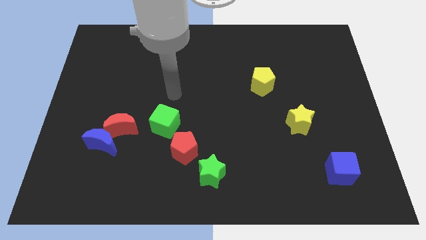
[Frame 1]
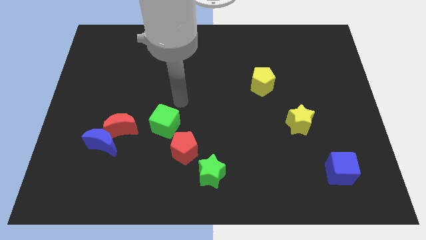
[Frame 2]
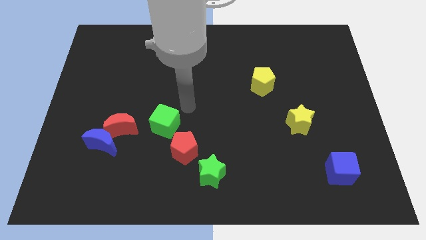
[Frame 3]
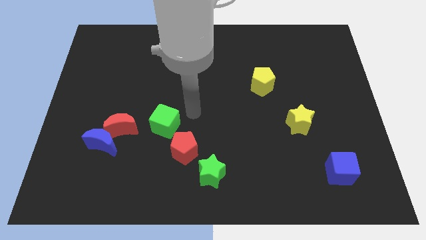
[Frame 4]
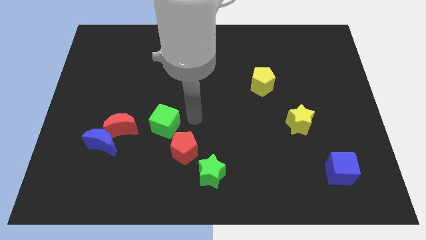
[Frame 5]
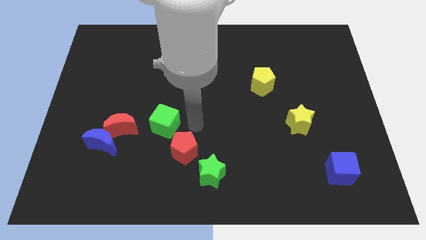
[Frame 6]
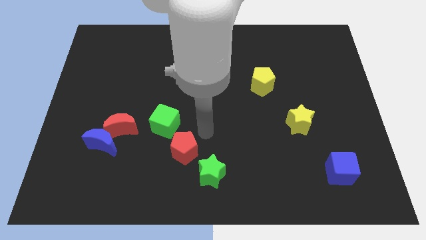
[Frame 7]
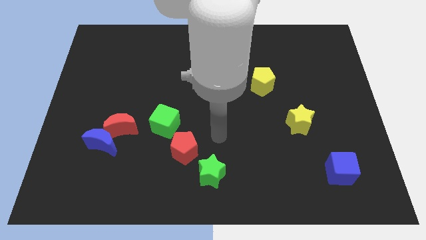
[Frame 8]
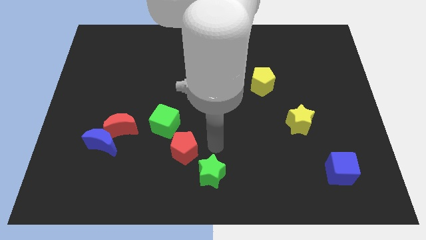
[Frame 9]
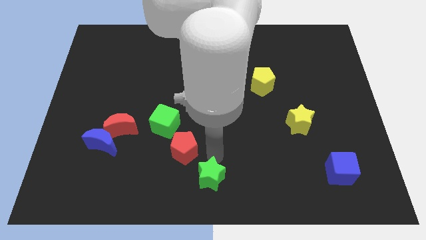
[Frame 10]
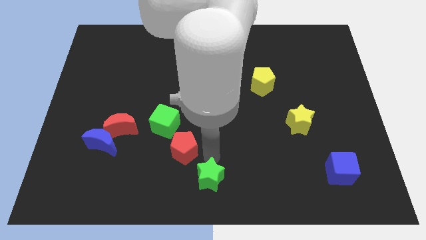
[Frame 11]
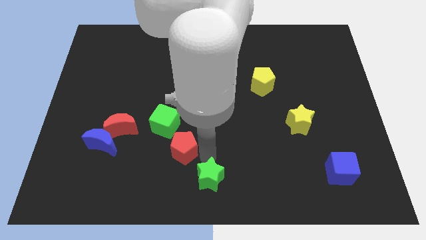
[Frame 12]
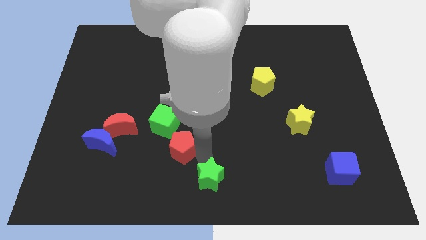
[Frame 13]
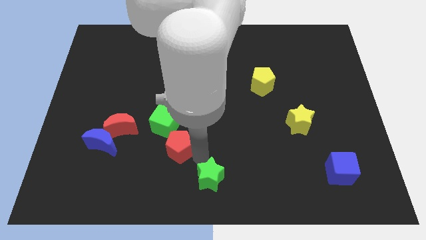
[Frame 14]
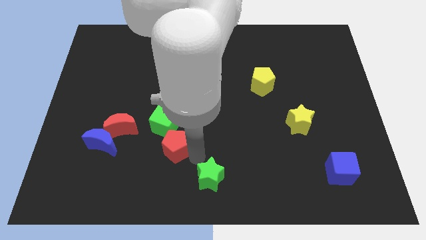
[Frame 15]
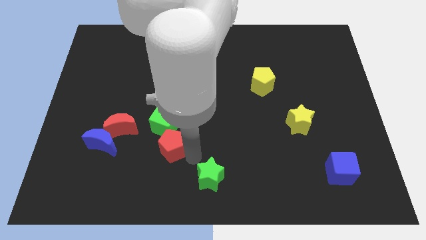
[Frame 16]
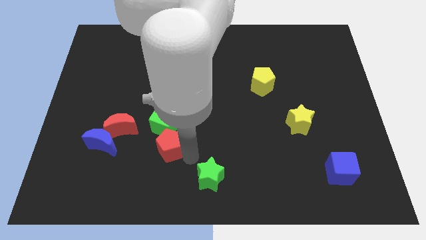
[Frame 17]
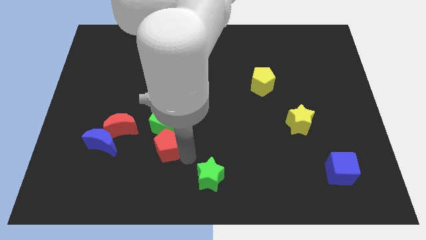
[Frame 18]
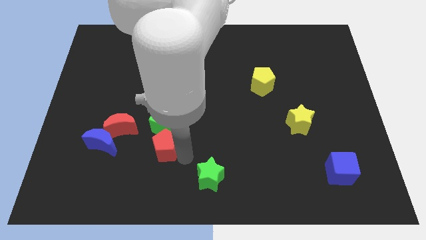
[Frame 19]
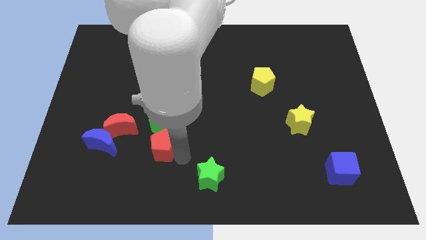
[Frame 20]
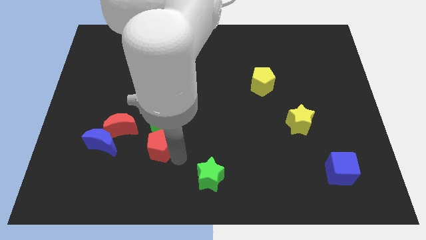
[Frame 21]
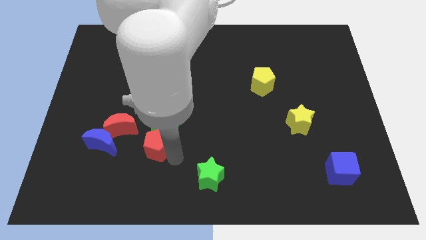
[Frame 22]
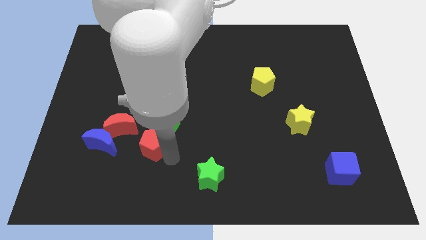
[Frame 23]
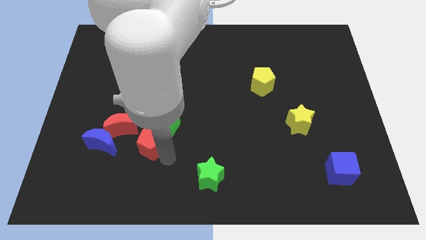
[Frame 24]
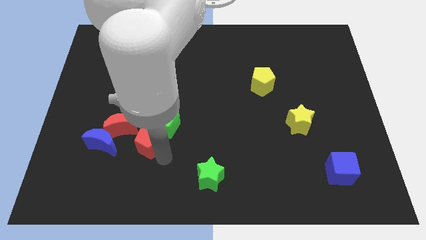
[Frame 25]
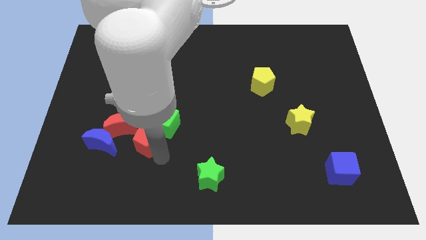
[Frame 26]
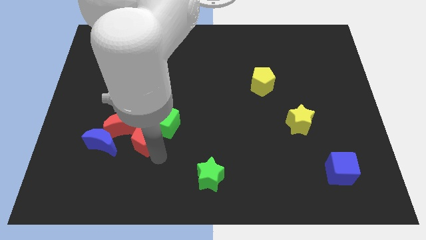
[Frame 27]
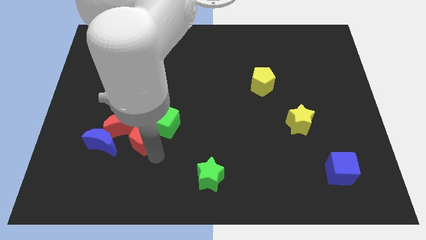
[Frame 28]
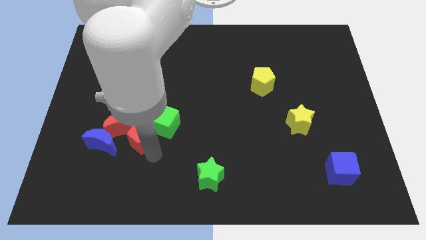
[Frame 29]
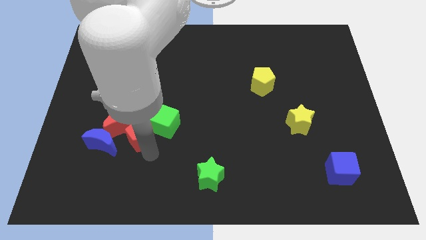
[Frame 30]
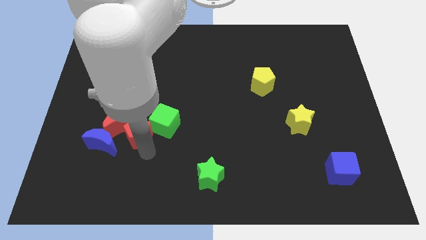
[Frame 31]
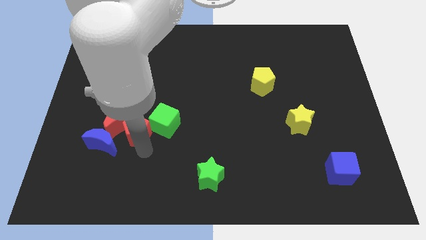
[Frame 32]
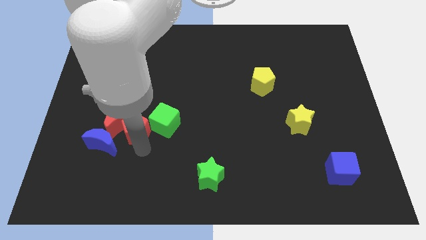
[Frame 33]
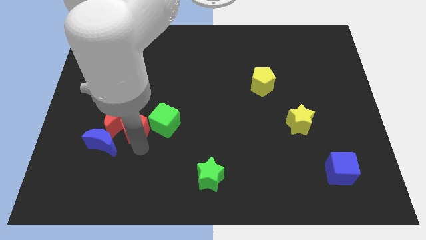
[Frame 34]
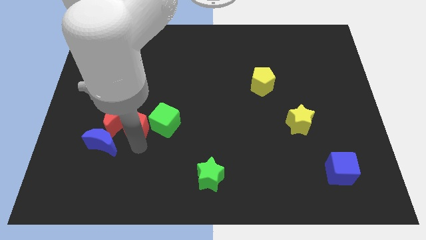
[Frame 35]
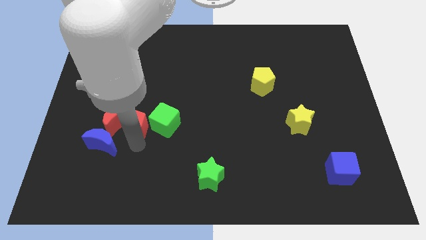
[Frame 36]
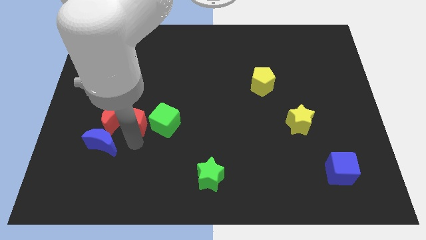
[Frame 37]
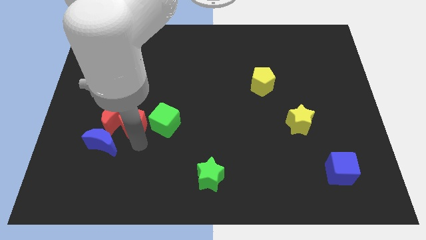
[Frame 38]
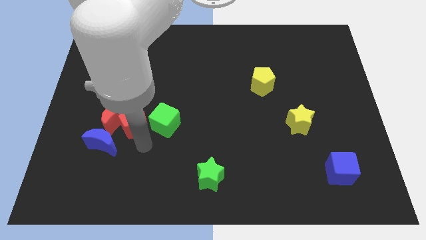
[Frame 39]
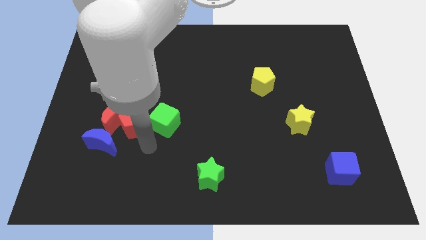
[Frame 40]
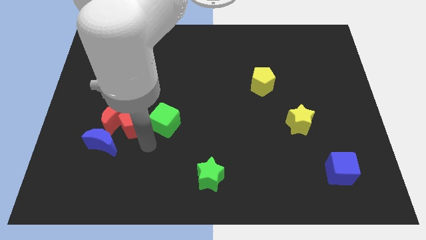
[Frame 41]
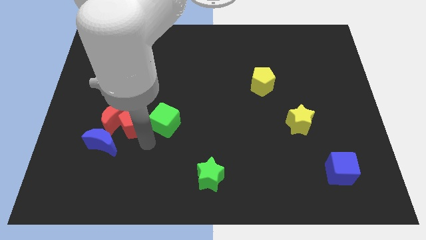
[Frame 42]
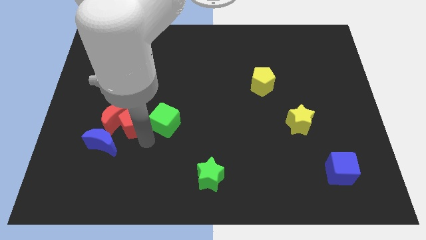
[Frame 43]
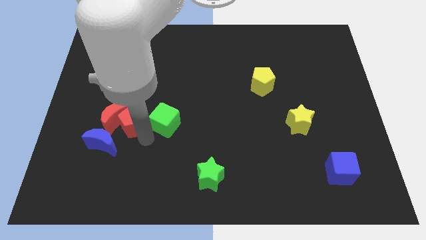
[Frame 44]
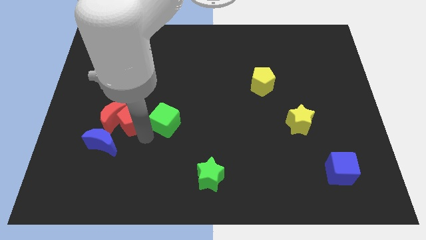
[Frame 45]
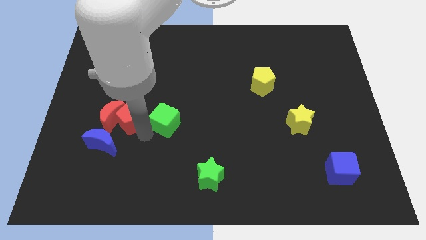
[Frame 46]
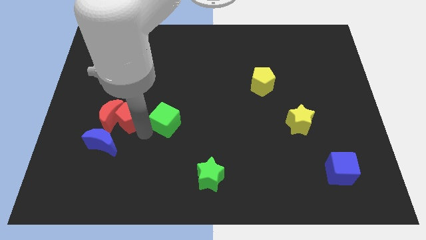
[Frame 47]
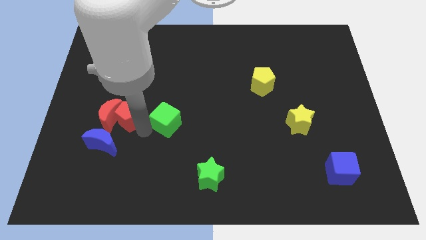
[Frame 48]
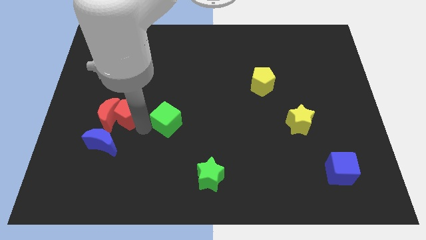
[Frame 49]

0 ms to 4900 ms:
push the red pentagon above the blue moon

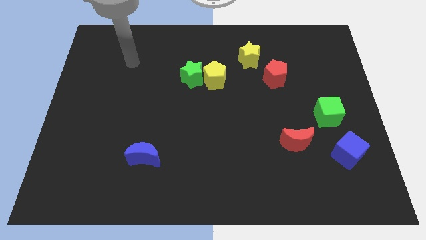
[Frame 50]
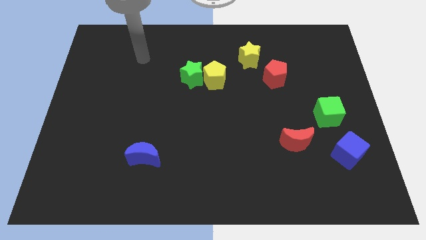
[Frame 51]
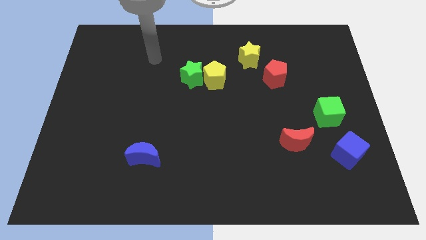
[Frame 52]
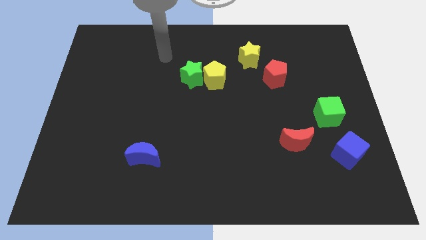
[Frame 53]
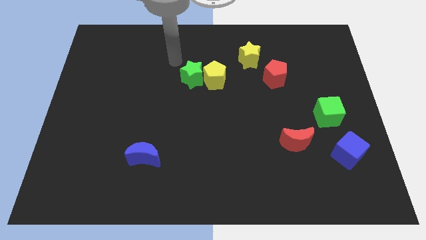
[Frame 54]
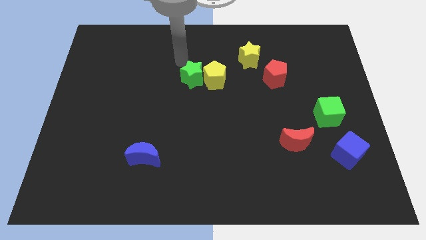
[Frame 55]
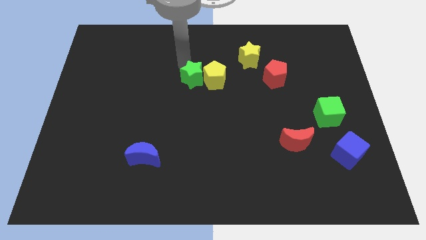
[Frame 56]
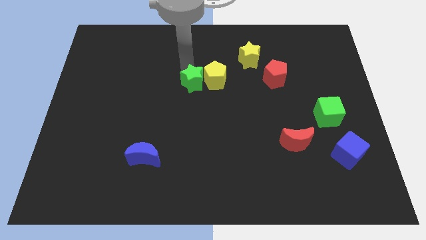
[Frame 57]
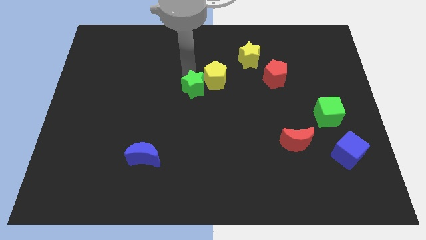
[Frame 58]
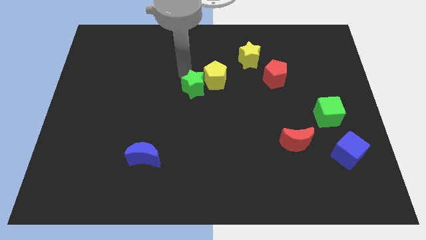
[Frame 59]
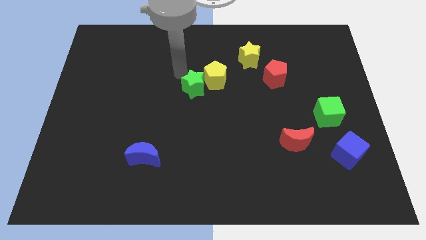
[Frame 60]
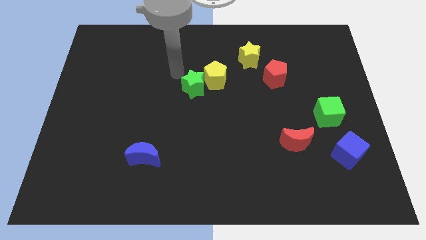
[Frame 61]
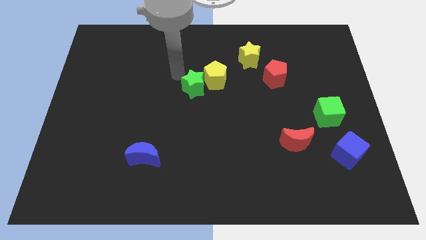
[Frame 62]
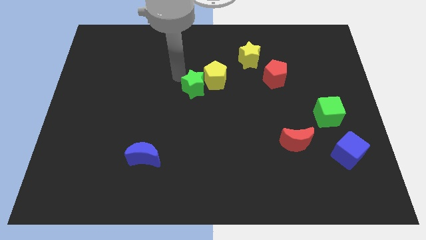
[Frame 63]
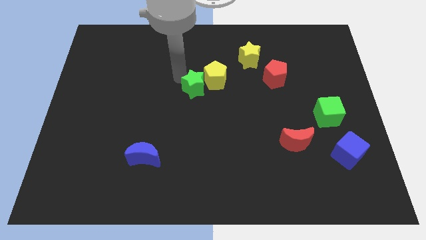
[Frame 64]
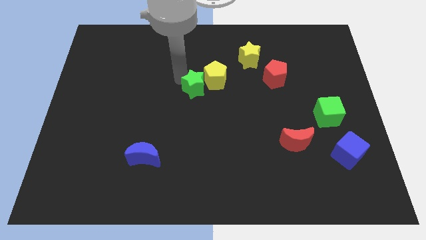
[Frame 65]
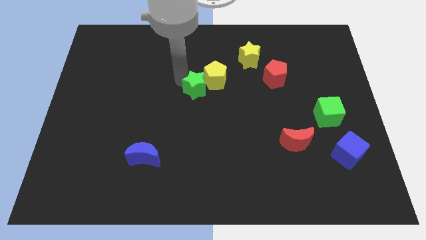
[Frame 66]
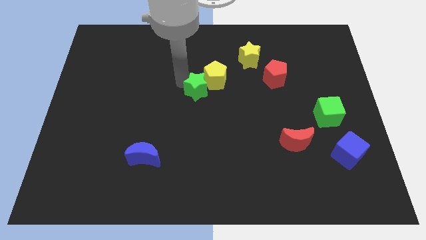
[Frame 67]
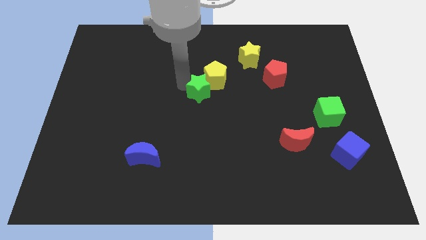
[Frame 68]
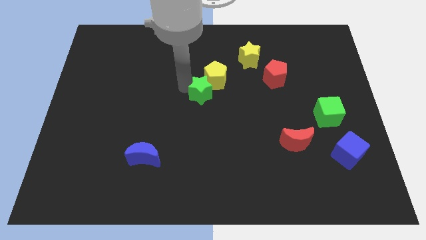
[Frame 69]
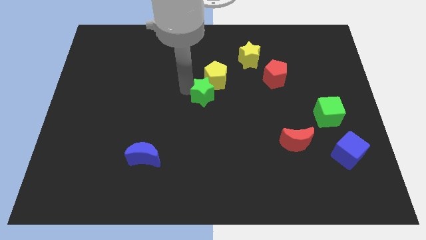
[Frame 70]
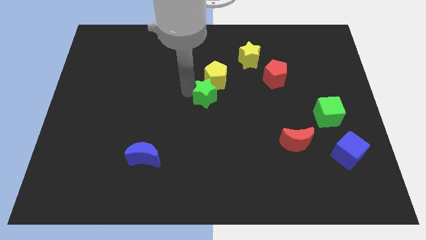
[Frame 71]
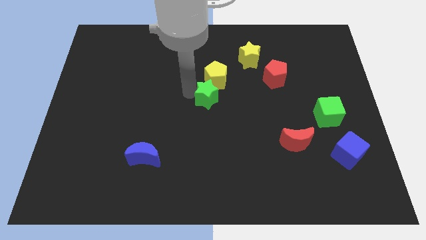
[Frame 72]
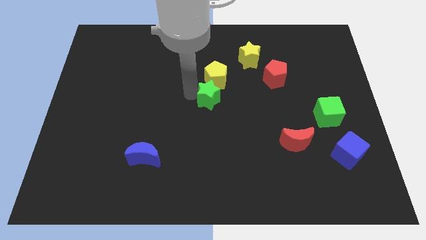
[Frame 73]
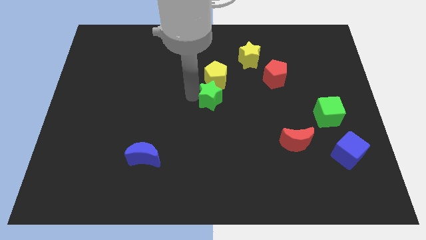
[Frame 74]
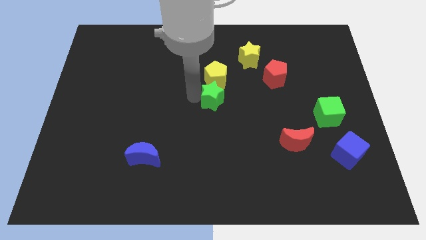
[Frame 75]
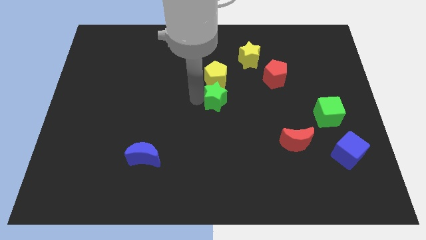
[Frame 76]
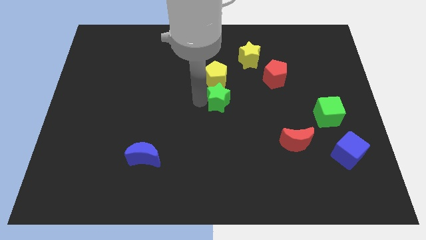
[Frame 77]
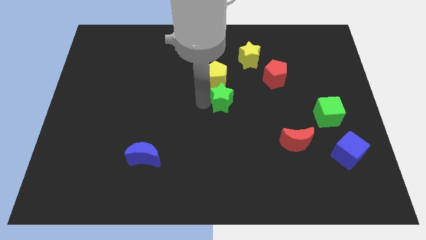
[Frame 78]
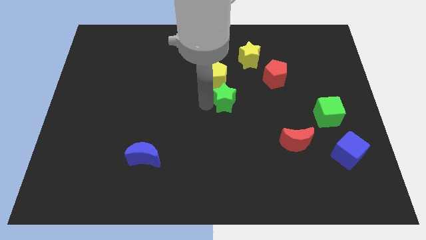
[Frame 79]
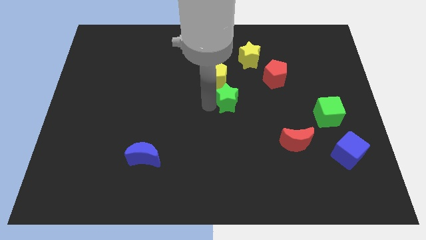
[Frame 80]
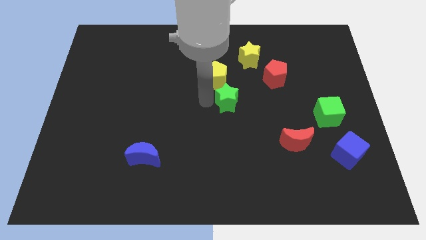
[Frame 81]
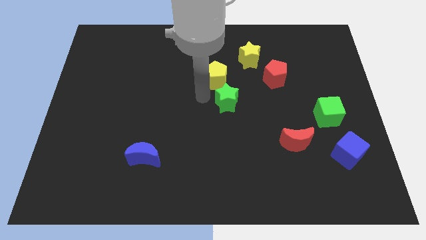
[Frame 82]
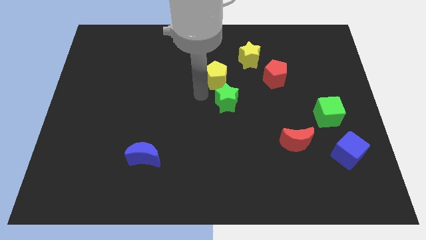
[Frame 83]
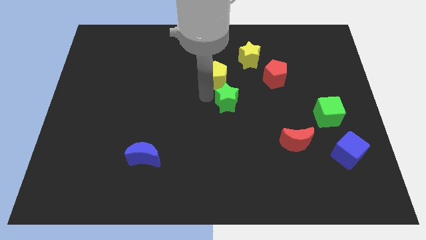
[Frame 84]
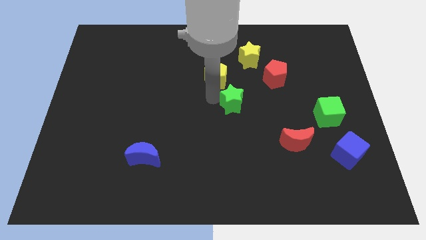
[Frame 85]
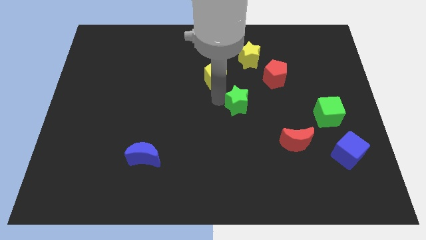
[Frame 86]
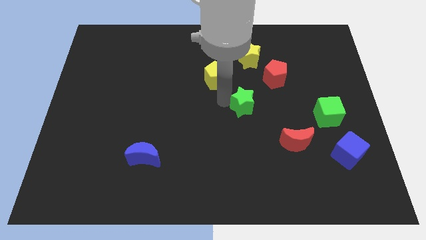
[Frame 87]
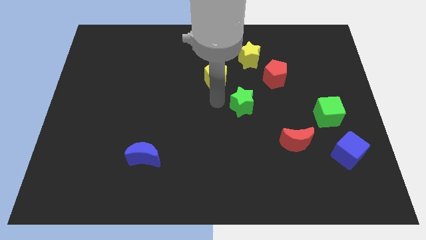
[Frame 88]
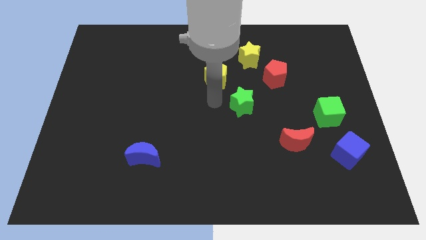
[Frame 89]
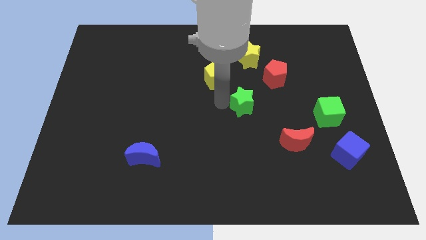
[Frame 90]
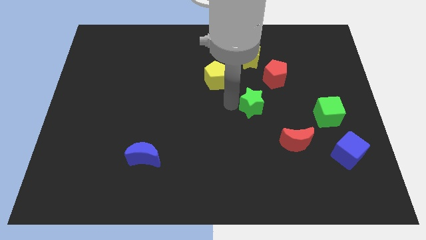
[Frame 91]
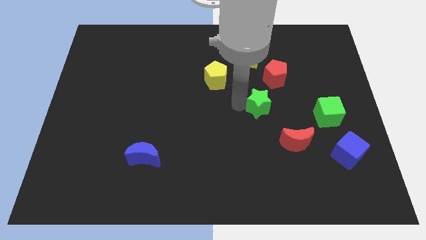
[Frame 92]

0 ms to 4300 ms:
push the green star to the bottom of the red pentagon
